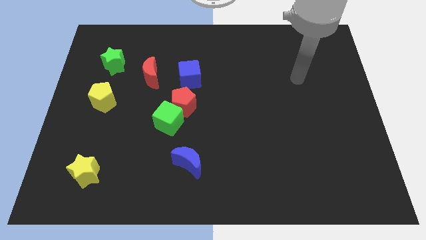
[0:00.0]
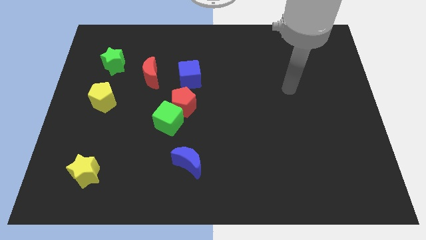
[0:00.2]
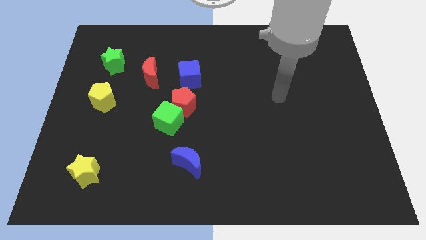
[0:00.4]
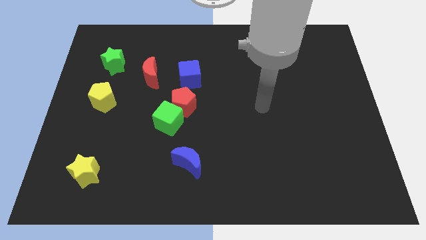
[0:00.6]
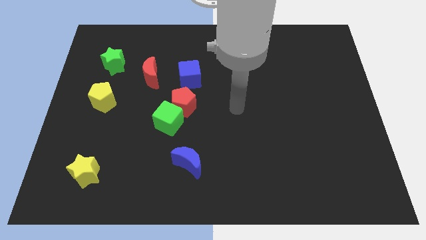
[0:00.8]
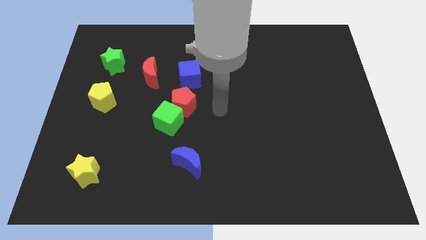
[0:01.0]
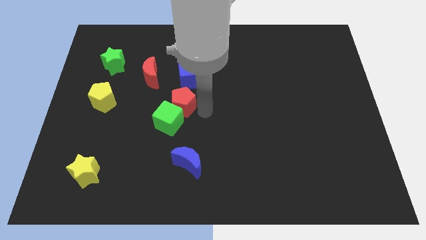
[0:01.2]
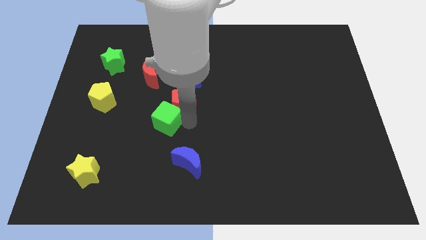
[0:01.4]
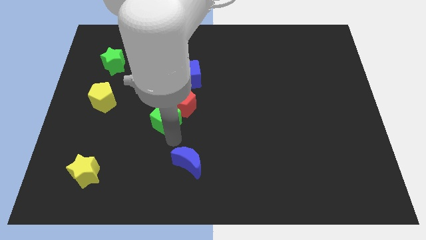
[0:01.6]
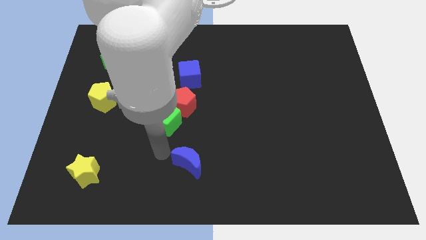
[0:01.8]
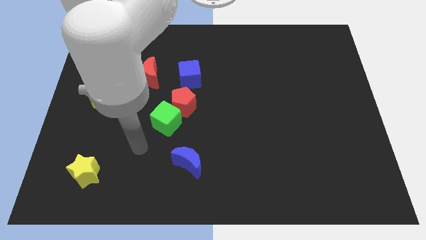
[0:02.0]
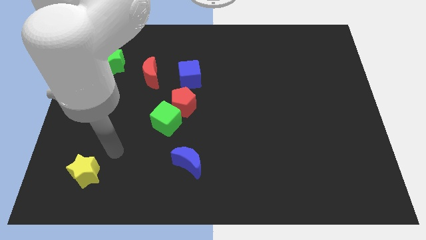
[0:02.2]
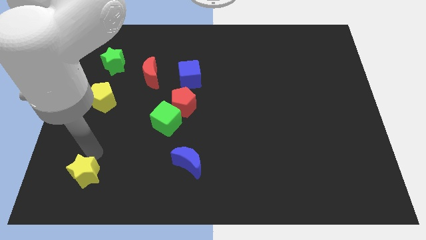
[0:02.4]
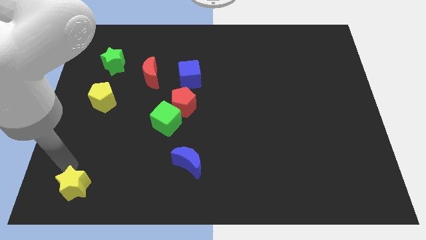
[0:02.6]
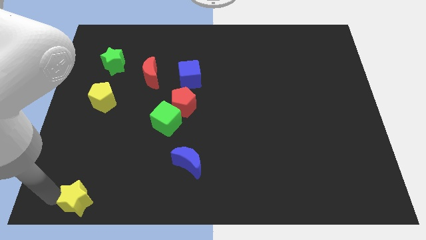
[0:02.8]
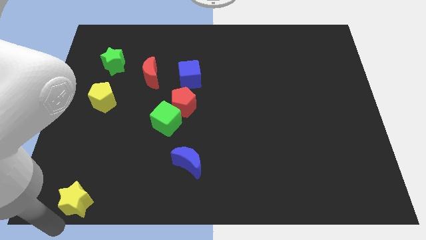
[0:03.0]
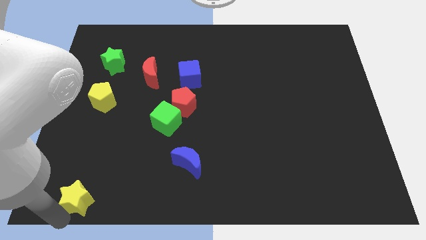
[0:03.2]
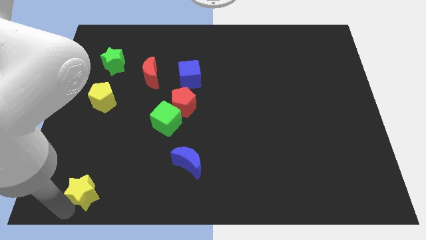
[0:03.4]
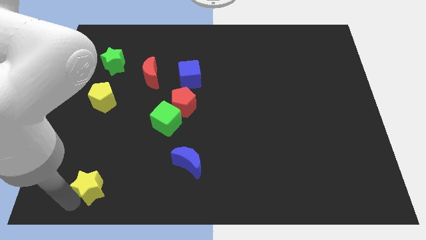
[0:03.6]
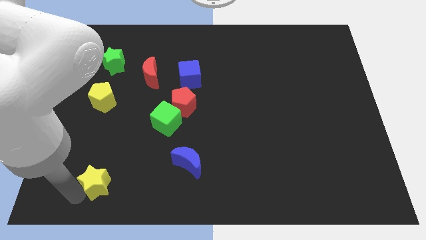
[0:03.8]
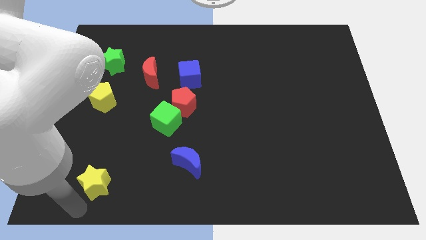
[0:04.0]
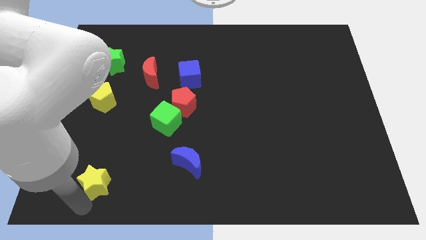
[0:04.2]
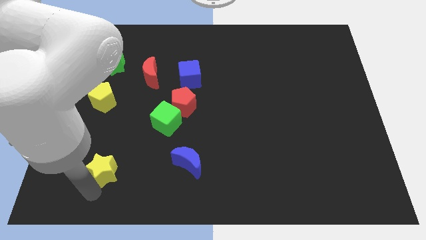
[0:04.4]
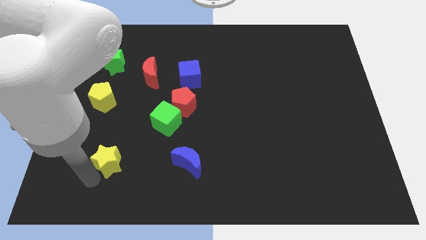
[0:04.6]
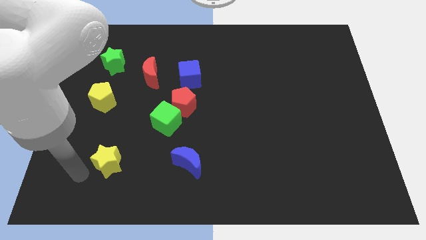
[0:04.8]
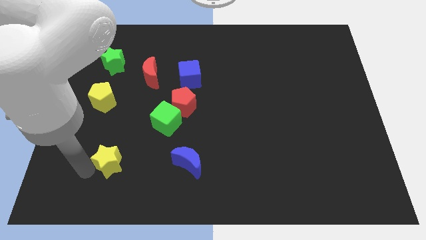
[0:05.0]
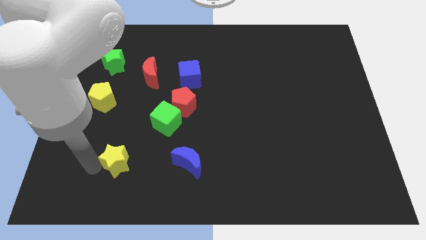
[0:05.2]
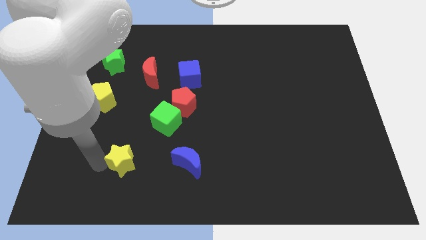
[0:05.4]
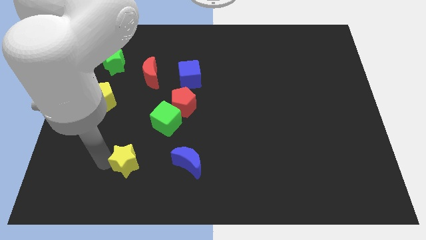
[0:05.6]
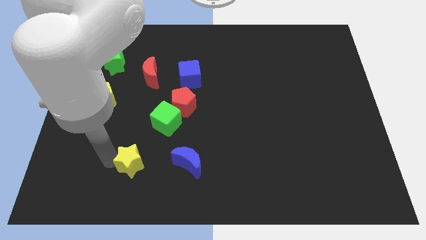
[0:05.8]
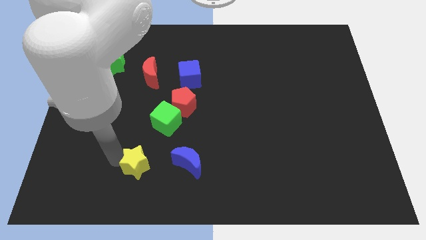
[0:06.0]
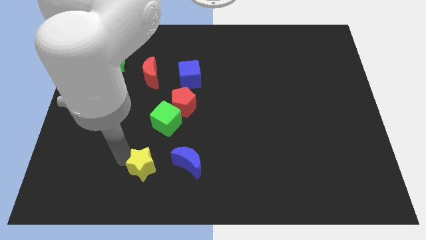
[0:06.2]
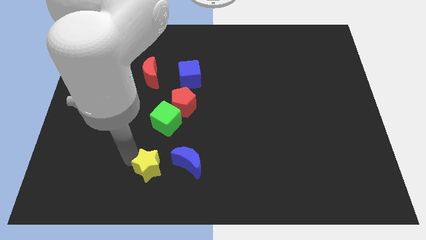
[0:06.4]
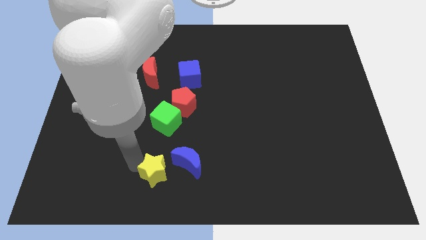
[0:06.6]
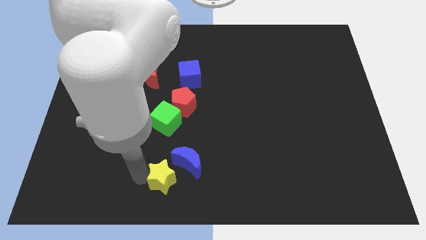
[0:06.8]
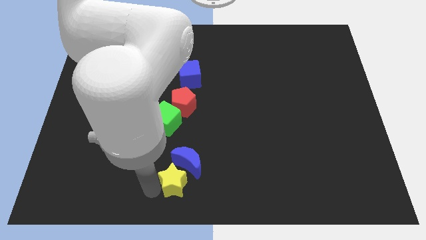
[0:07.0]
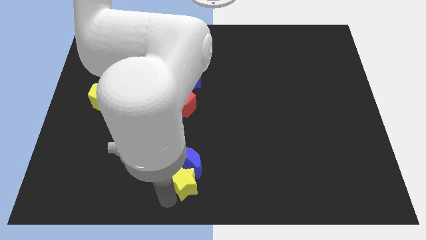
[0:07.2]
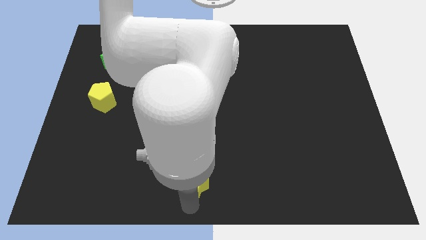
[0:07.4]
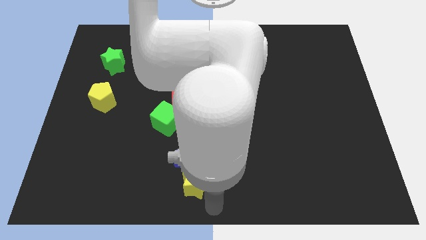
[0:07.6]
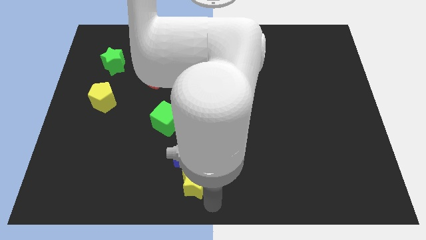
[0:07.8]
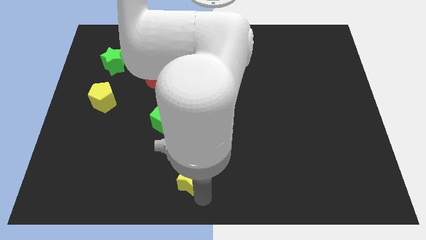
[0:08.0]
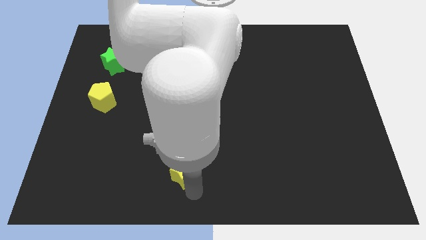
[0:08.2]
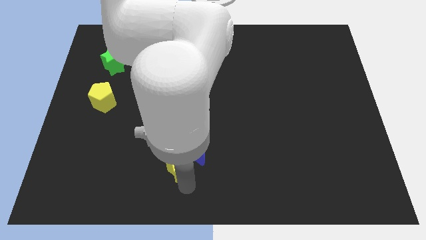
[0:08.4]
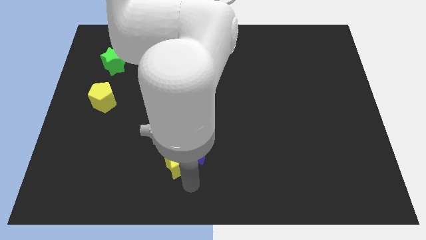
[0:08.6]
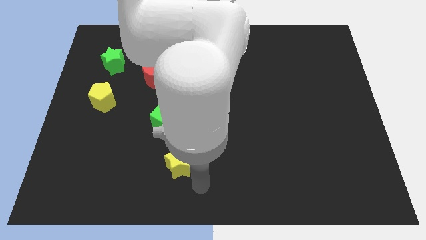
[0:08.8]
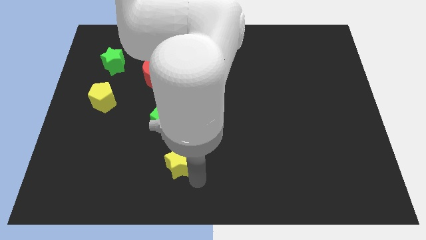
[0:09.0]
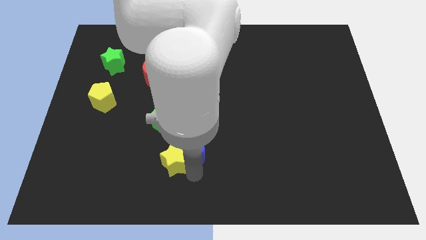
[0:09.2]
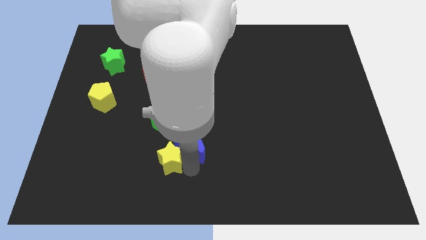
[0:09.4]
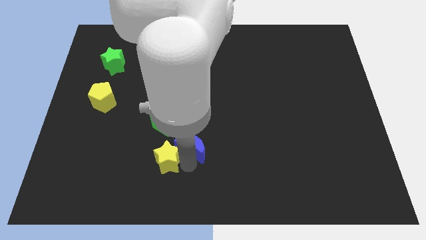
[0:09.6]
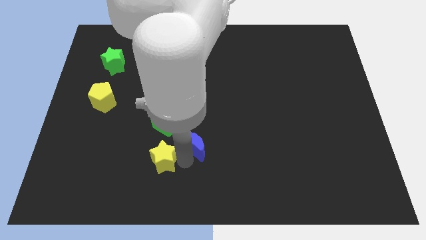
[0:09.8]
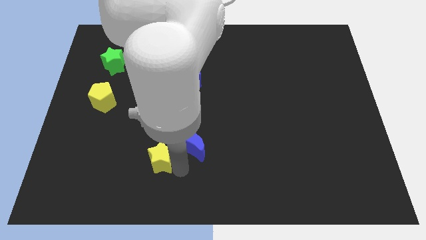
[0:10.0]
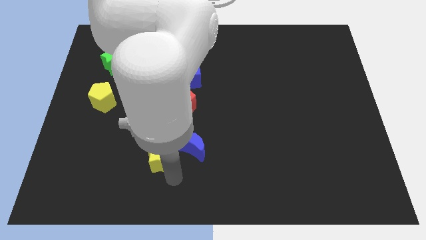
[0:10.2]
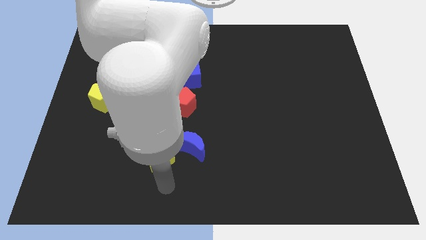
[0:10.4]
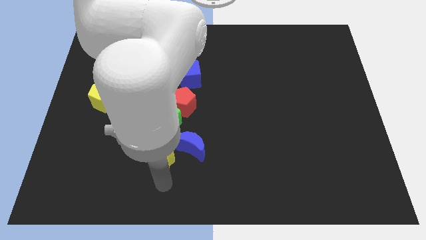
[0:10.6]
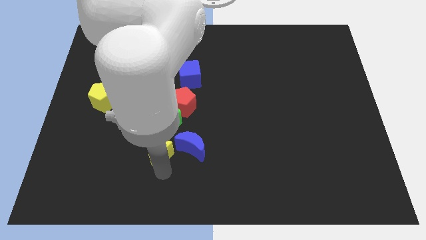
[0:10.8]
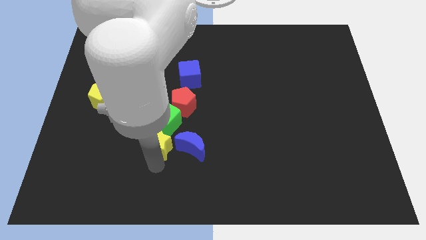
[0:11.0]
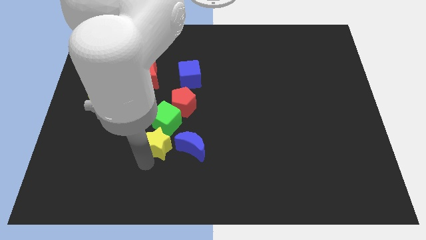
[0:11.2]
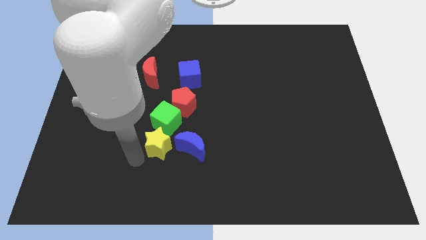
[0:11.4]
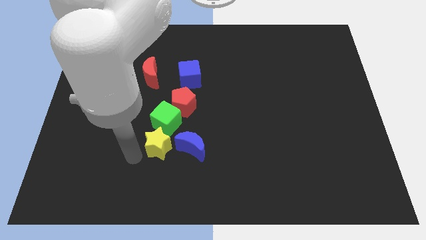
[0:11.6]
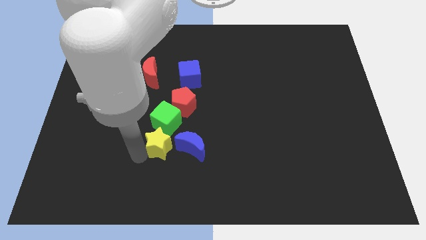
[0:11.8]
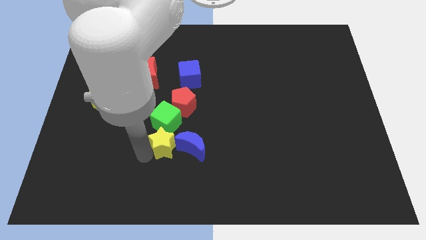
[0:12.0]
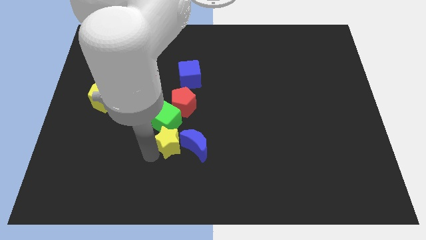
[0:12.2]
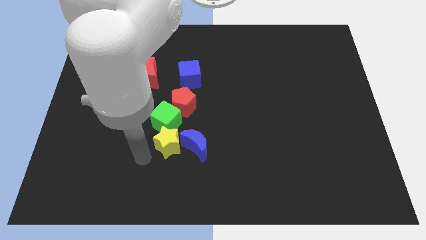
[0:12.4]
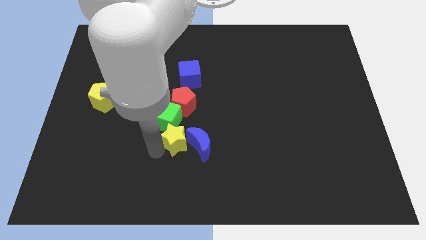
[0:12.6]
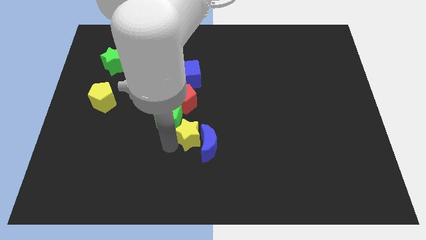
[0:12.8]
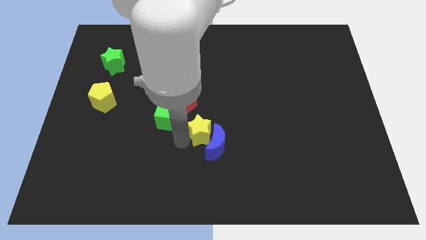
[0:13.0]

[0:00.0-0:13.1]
push the yellow star diagonally up and to the right

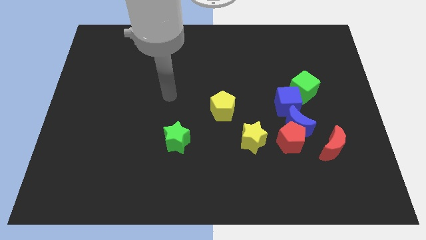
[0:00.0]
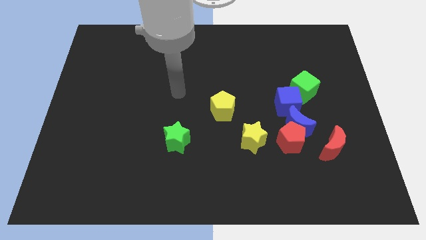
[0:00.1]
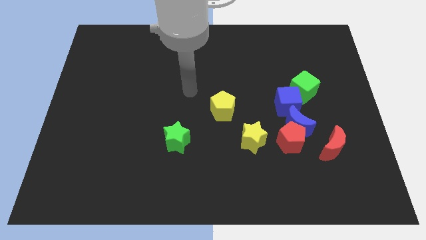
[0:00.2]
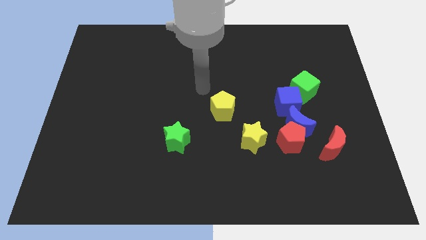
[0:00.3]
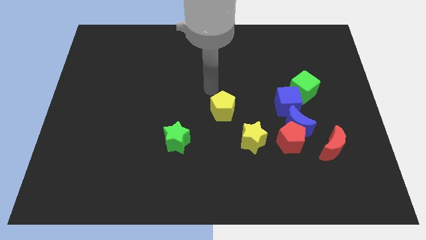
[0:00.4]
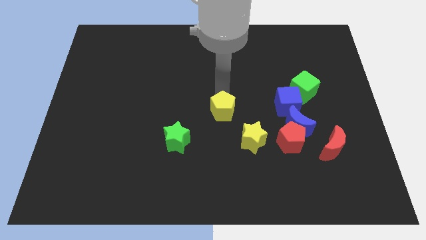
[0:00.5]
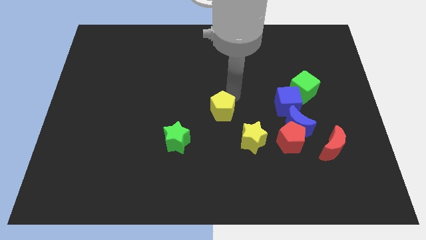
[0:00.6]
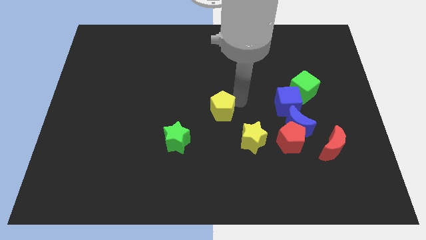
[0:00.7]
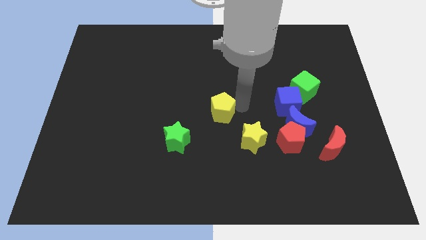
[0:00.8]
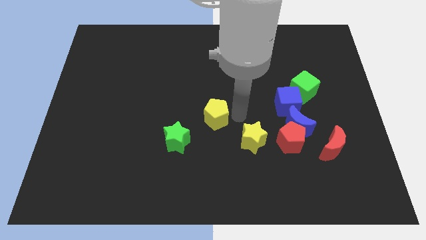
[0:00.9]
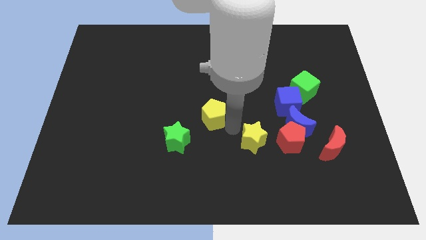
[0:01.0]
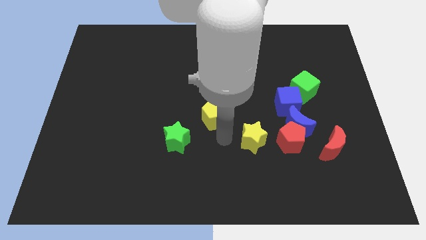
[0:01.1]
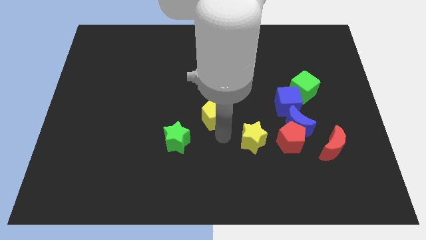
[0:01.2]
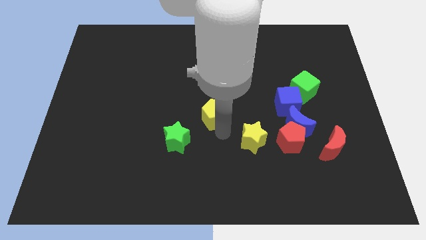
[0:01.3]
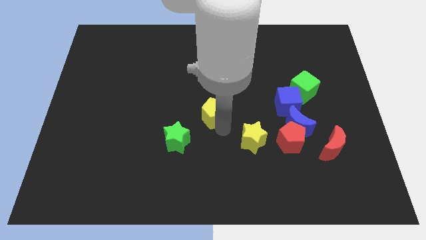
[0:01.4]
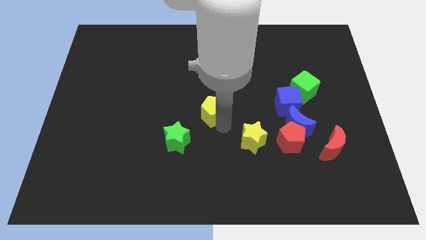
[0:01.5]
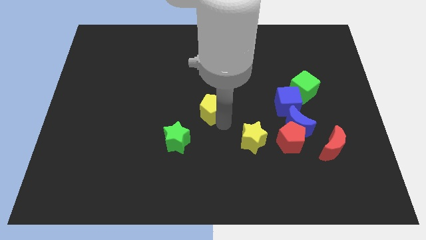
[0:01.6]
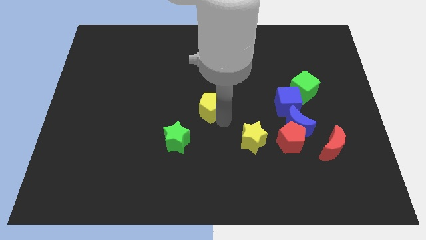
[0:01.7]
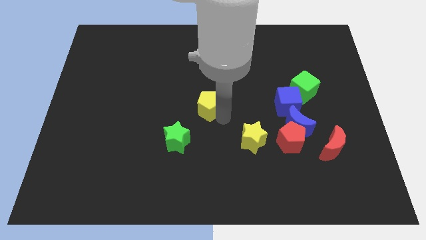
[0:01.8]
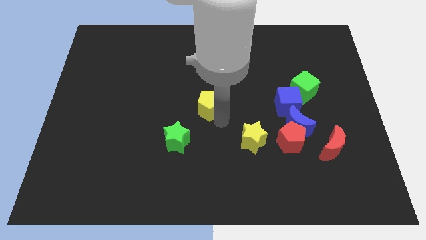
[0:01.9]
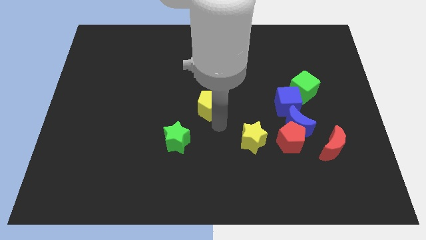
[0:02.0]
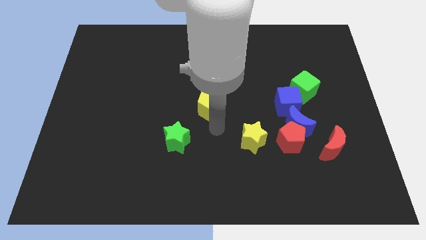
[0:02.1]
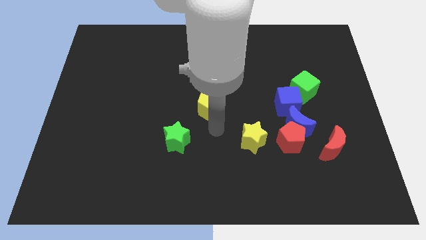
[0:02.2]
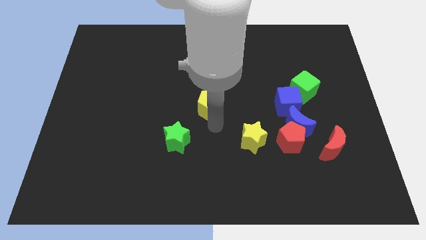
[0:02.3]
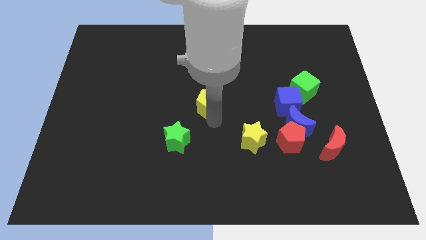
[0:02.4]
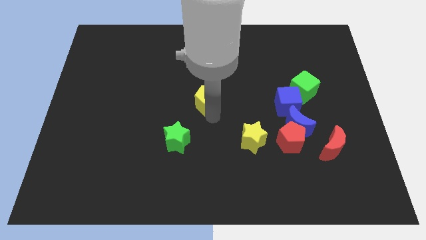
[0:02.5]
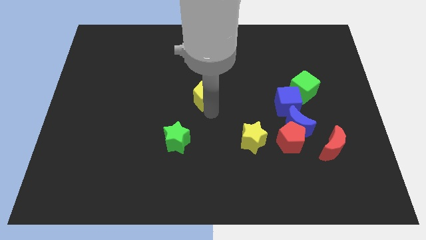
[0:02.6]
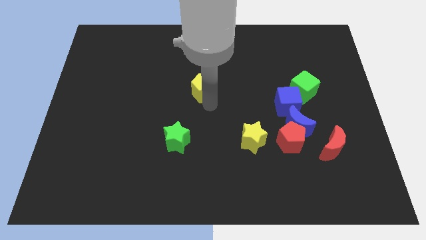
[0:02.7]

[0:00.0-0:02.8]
move the yellow pentagon somewhat up and then to the left
